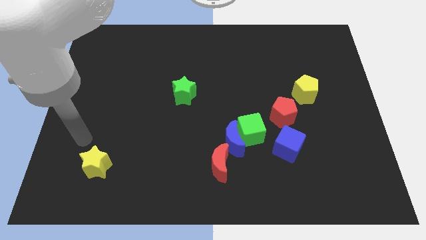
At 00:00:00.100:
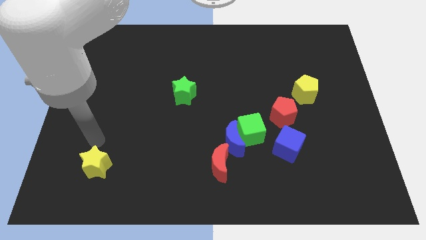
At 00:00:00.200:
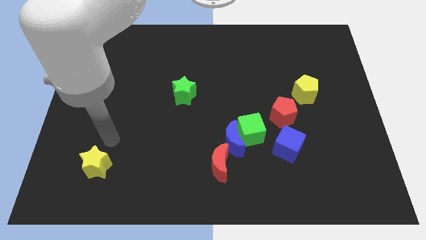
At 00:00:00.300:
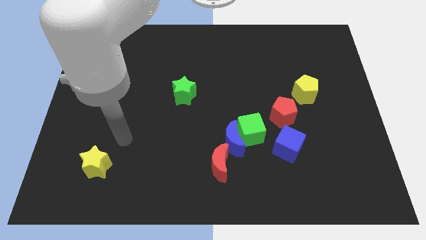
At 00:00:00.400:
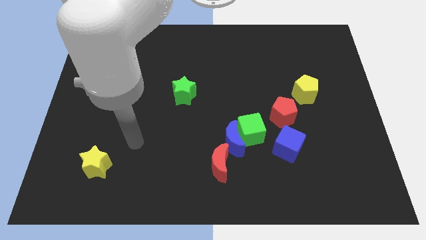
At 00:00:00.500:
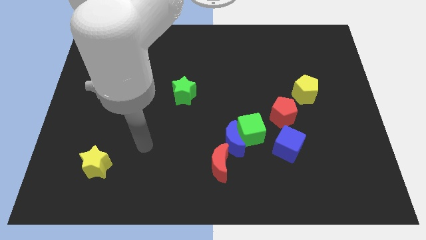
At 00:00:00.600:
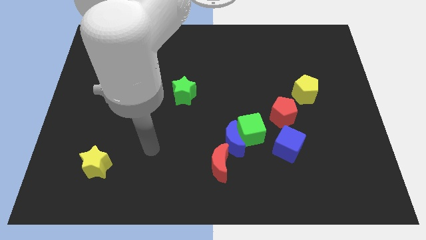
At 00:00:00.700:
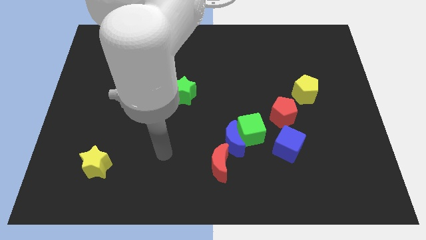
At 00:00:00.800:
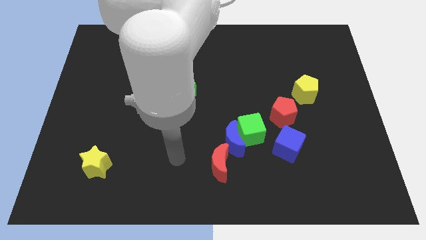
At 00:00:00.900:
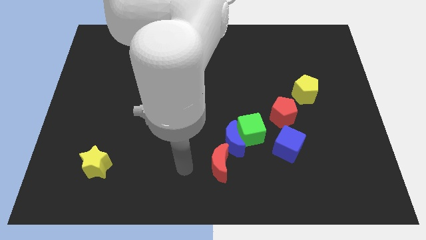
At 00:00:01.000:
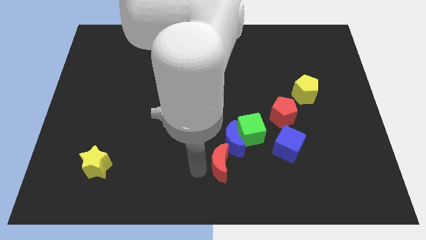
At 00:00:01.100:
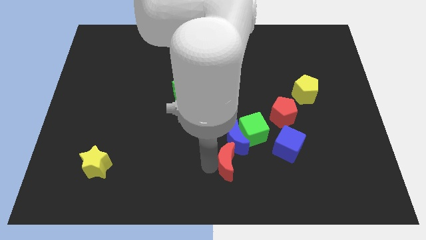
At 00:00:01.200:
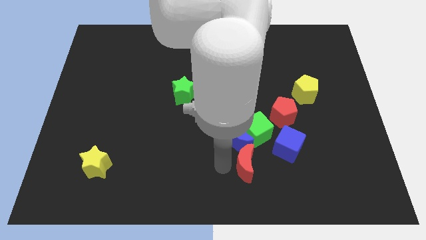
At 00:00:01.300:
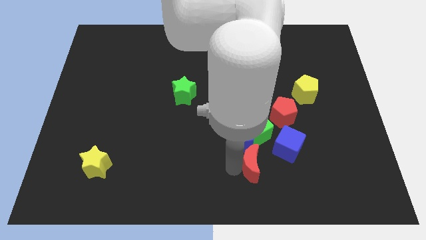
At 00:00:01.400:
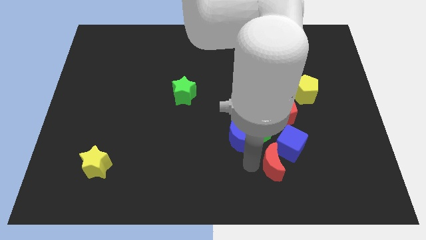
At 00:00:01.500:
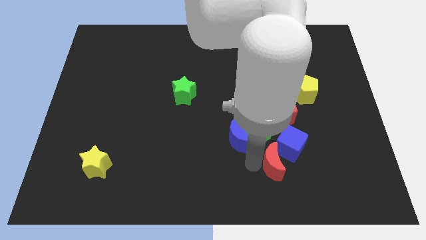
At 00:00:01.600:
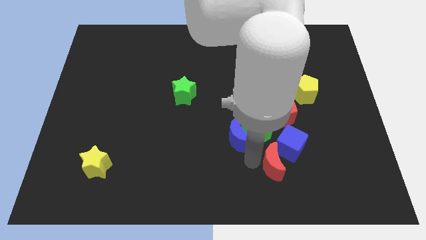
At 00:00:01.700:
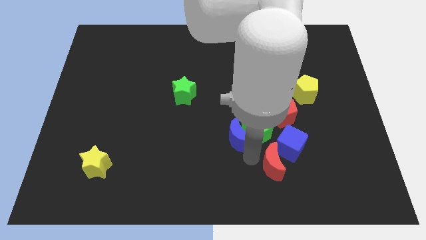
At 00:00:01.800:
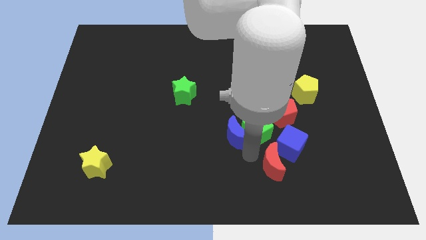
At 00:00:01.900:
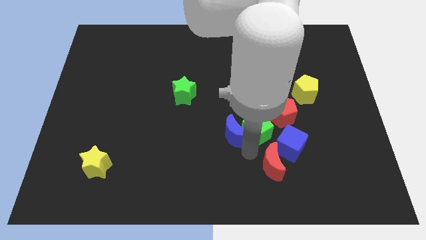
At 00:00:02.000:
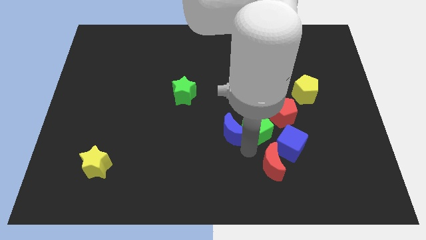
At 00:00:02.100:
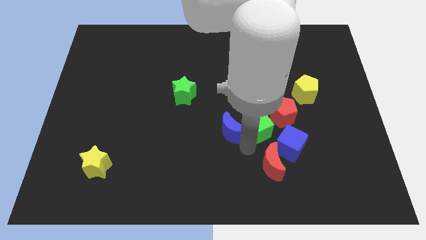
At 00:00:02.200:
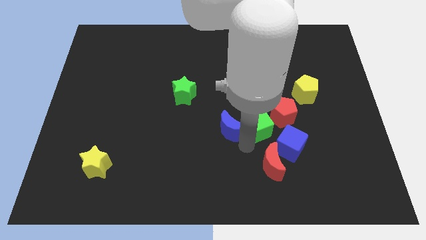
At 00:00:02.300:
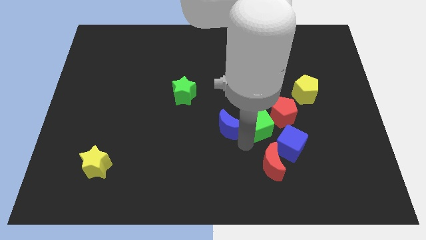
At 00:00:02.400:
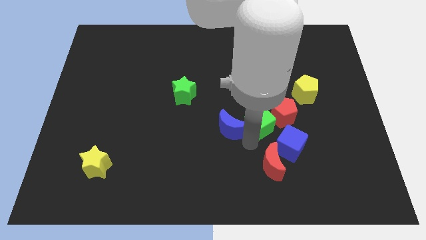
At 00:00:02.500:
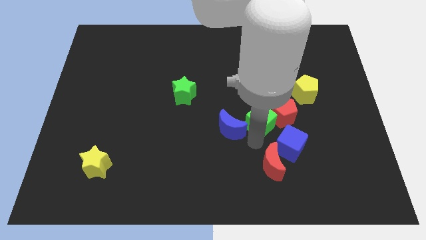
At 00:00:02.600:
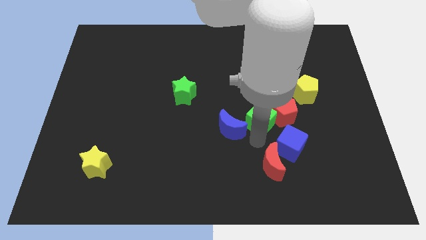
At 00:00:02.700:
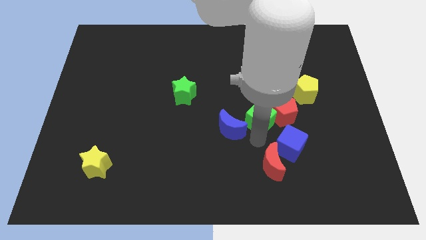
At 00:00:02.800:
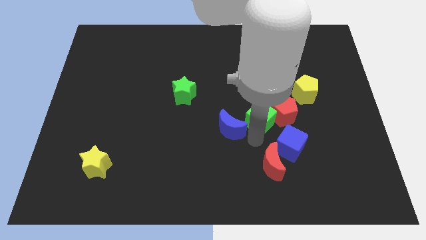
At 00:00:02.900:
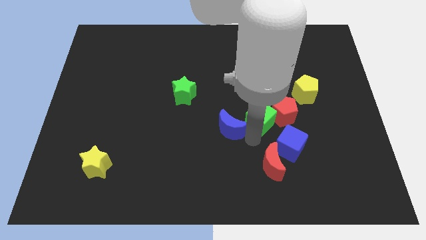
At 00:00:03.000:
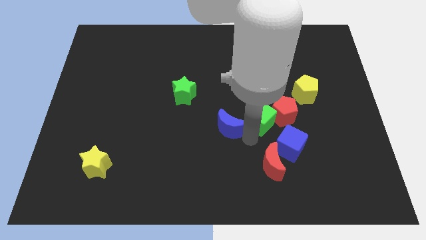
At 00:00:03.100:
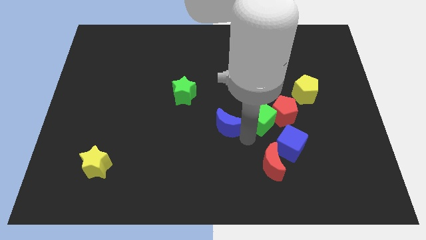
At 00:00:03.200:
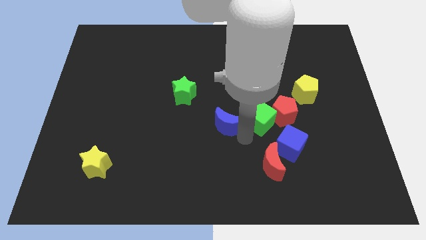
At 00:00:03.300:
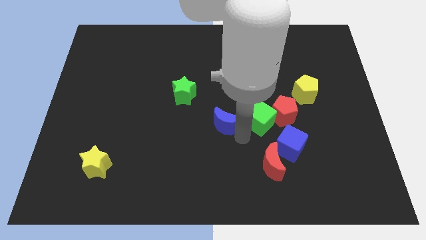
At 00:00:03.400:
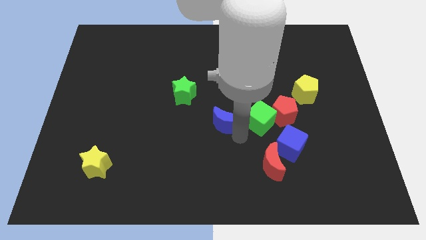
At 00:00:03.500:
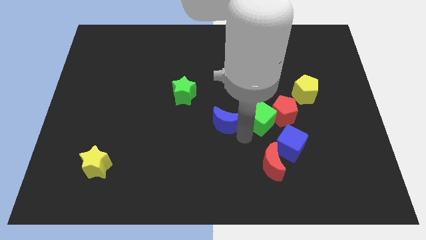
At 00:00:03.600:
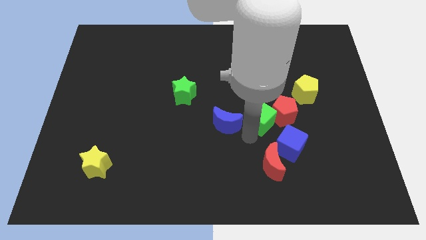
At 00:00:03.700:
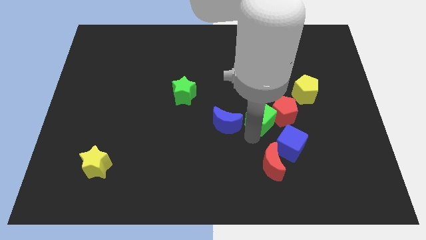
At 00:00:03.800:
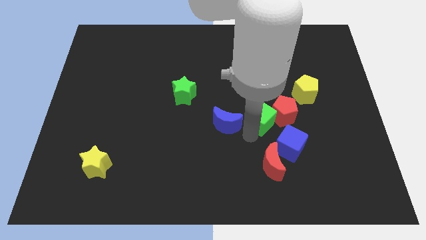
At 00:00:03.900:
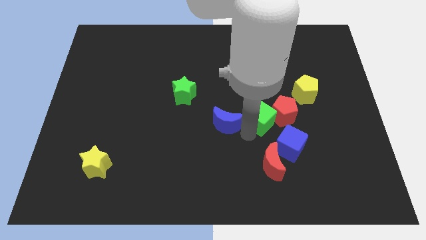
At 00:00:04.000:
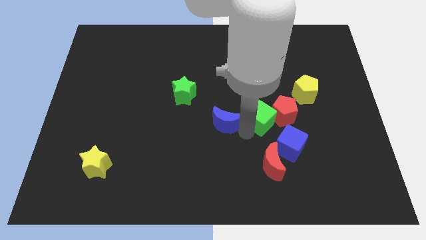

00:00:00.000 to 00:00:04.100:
pull the blue moon apart from the green cube and red moon

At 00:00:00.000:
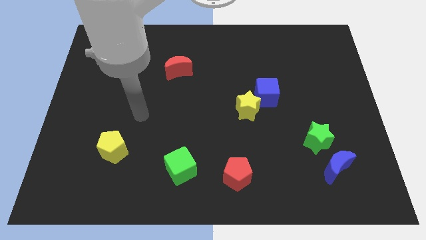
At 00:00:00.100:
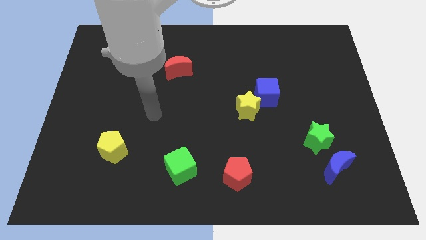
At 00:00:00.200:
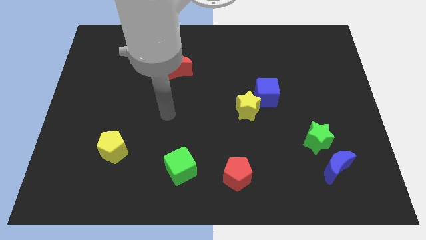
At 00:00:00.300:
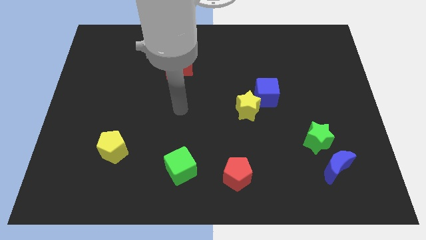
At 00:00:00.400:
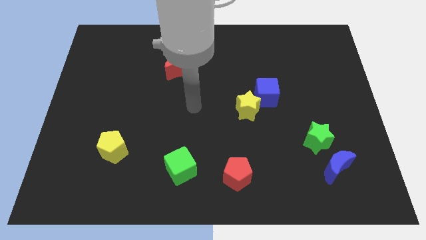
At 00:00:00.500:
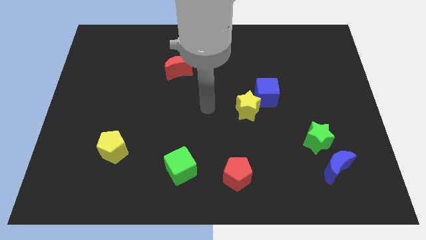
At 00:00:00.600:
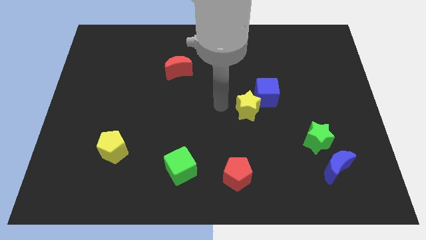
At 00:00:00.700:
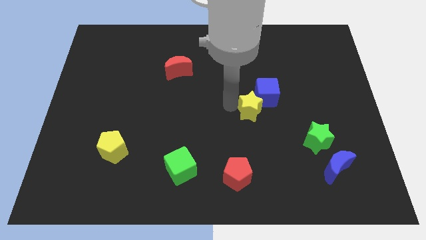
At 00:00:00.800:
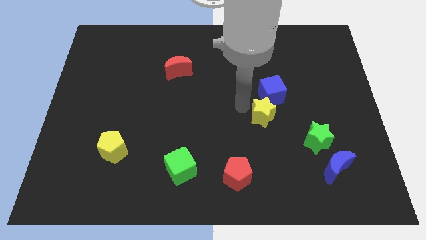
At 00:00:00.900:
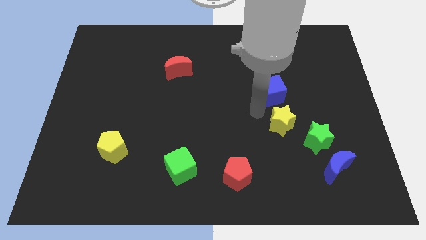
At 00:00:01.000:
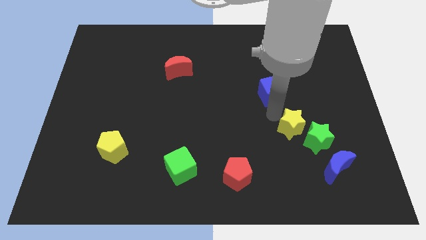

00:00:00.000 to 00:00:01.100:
separate the blue cube from the yellow star

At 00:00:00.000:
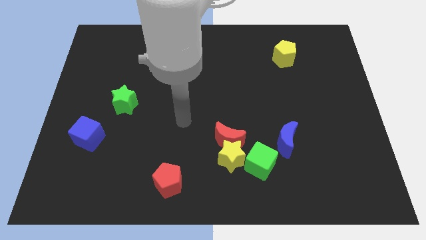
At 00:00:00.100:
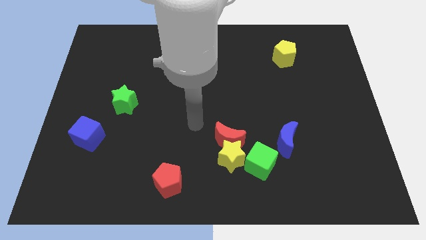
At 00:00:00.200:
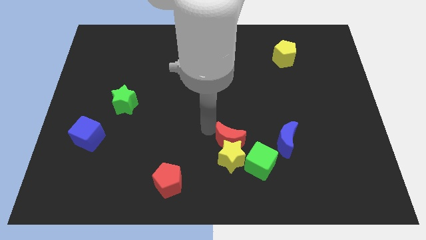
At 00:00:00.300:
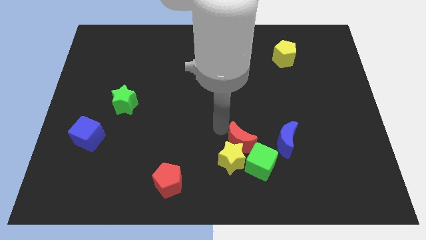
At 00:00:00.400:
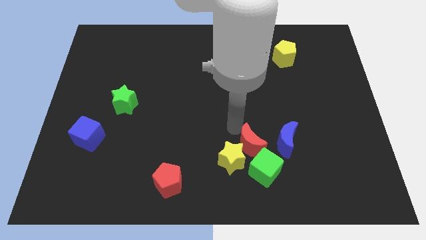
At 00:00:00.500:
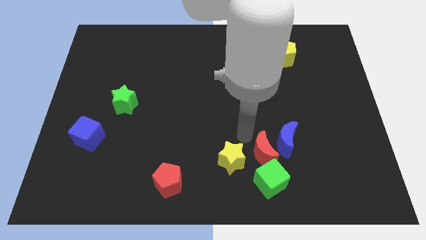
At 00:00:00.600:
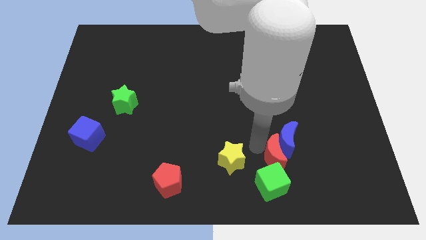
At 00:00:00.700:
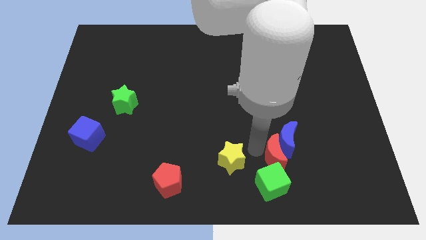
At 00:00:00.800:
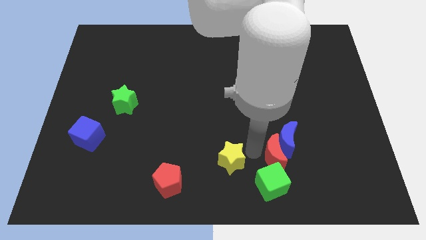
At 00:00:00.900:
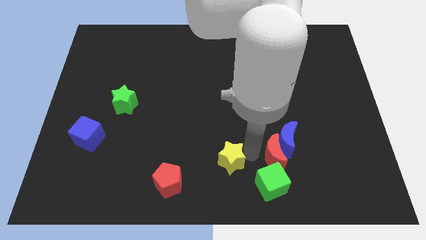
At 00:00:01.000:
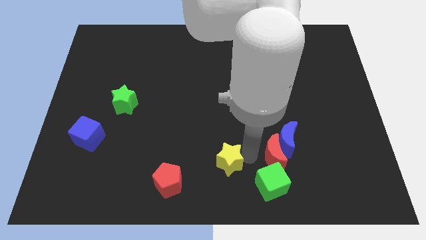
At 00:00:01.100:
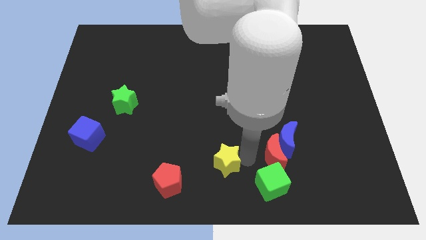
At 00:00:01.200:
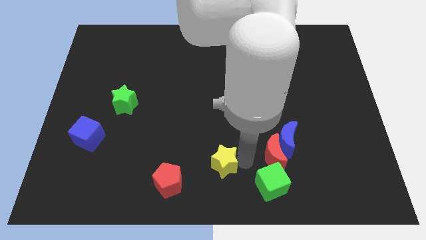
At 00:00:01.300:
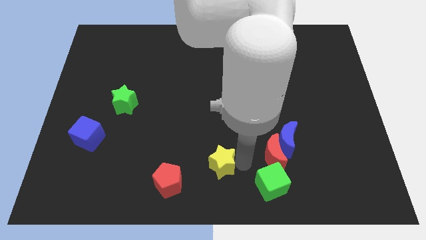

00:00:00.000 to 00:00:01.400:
pull the yellow star apart from the red moon and green cube

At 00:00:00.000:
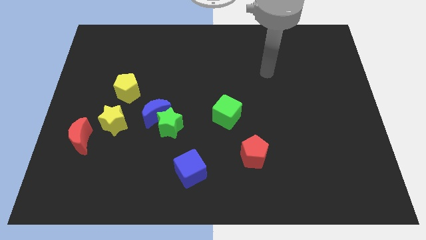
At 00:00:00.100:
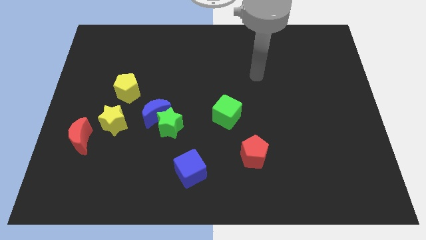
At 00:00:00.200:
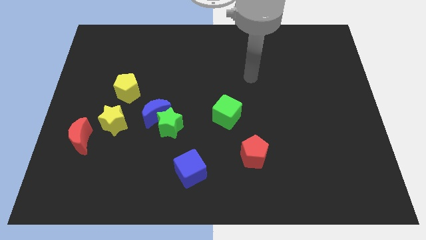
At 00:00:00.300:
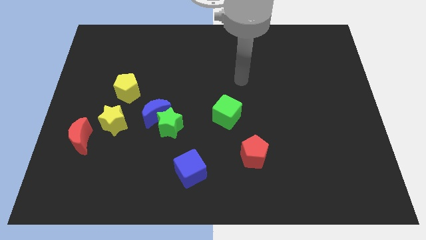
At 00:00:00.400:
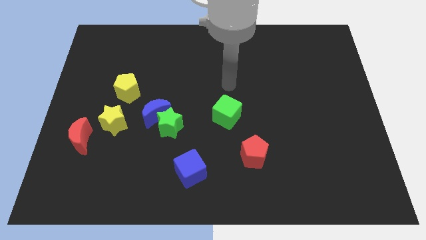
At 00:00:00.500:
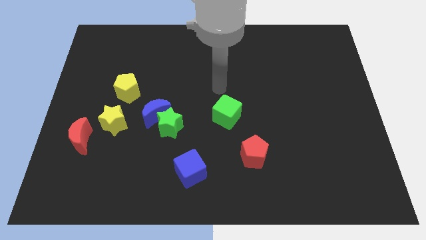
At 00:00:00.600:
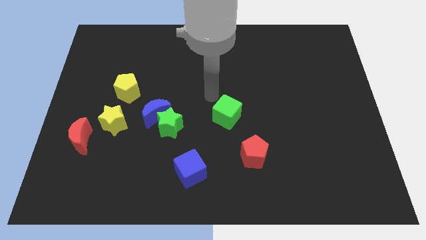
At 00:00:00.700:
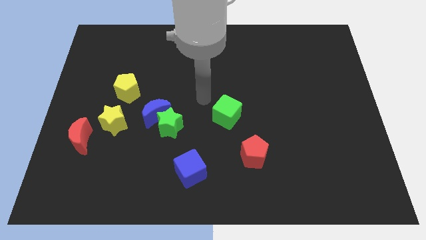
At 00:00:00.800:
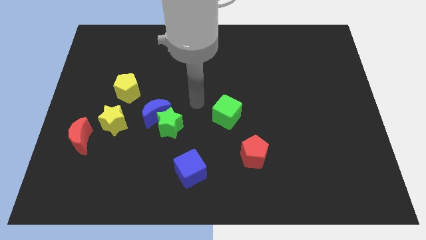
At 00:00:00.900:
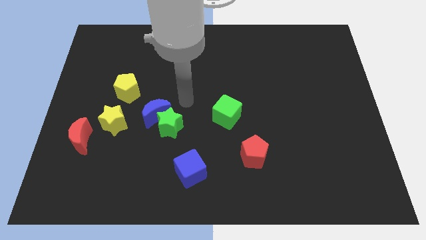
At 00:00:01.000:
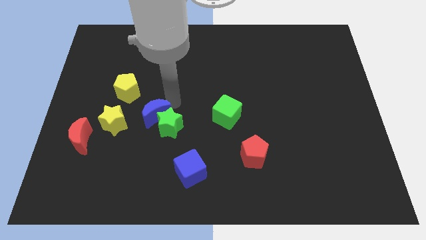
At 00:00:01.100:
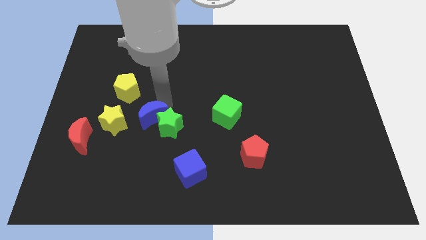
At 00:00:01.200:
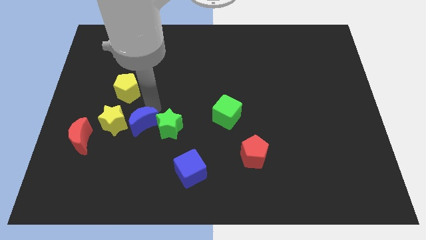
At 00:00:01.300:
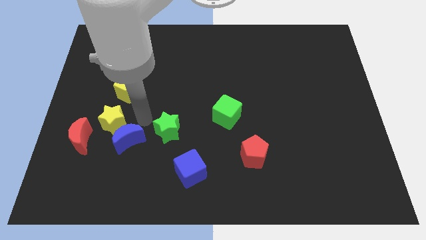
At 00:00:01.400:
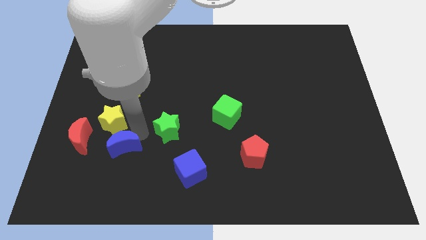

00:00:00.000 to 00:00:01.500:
pull the green star apart from the blue moon

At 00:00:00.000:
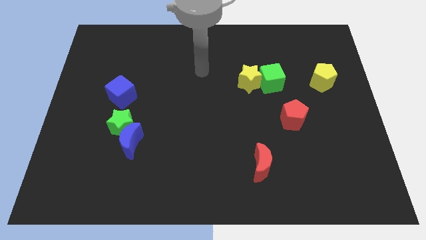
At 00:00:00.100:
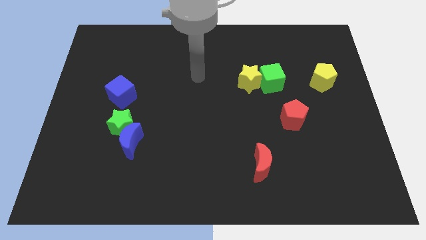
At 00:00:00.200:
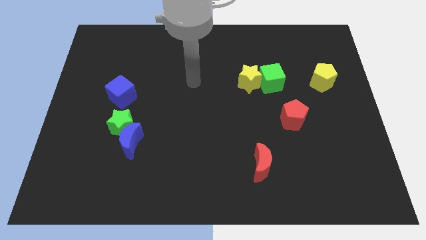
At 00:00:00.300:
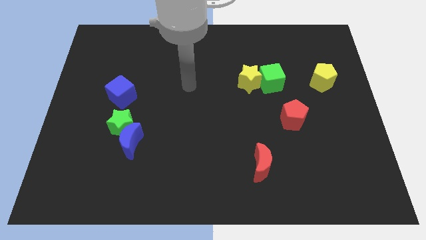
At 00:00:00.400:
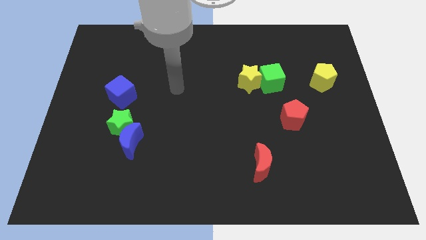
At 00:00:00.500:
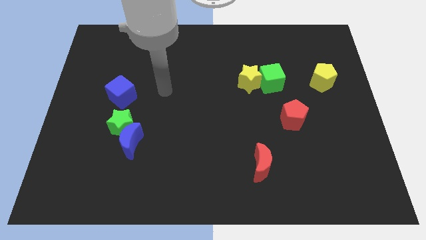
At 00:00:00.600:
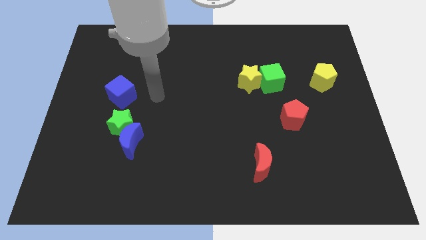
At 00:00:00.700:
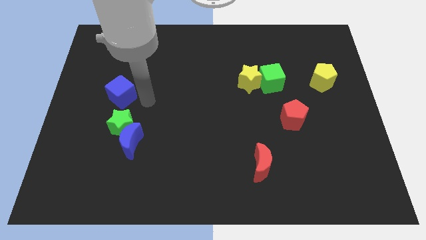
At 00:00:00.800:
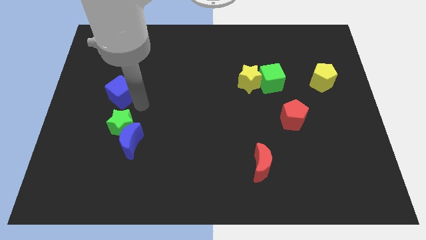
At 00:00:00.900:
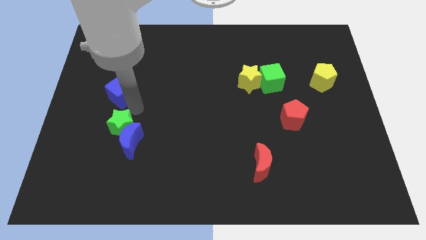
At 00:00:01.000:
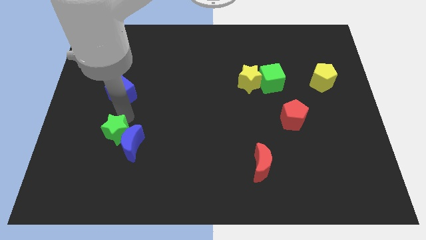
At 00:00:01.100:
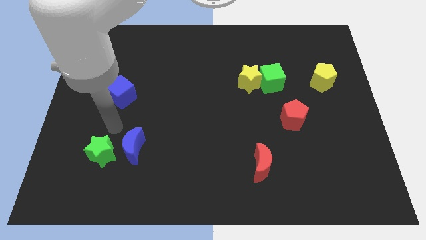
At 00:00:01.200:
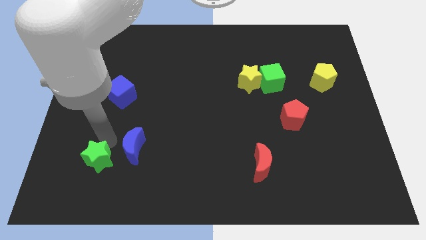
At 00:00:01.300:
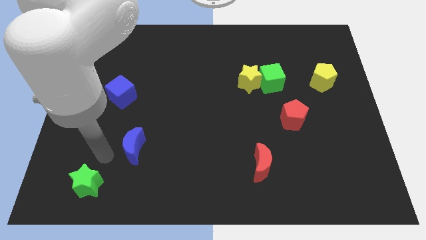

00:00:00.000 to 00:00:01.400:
separate the blue moon from the green star
